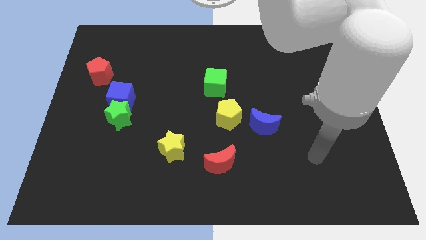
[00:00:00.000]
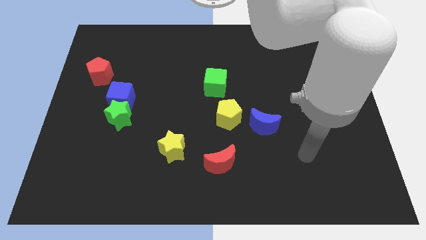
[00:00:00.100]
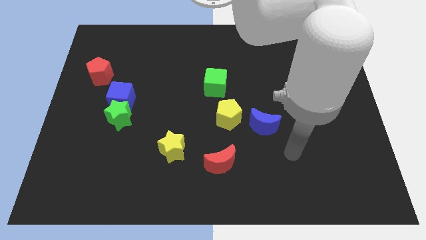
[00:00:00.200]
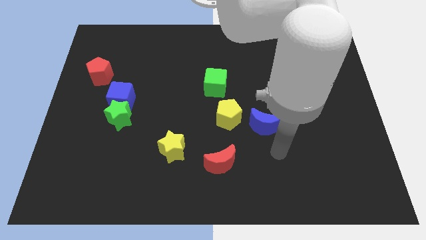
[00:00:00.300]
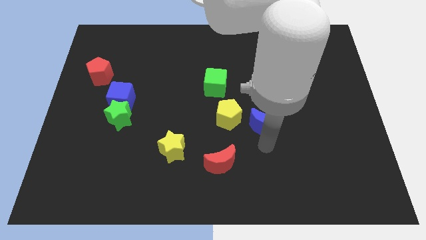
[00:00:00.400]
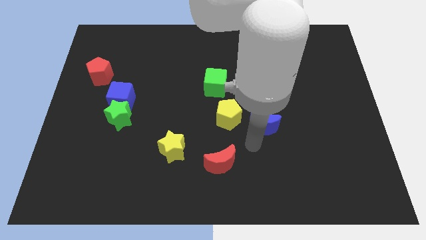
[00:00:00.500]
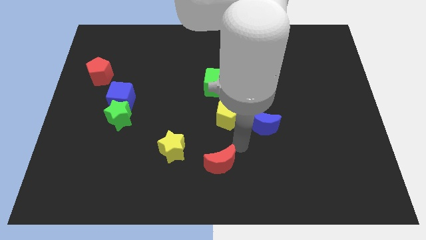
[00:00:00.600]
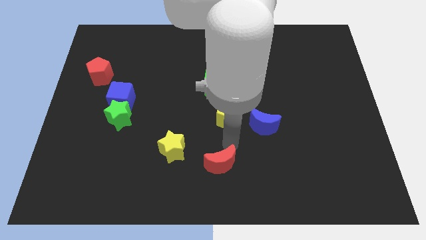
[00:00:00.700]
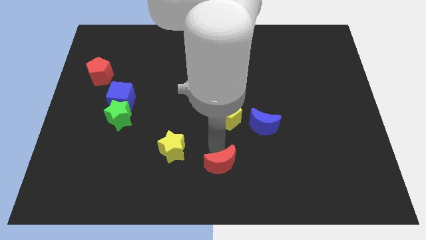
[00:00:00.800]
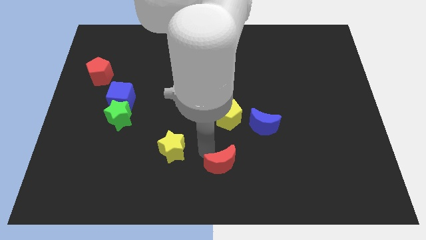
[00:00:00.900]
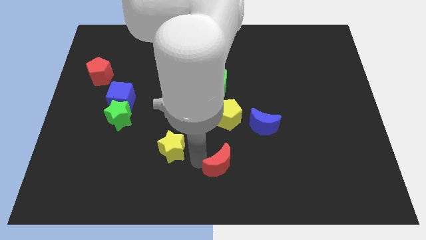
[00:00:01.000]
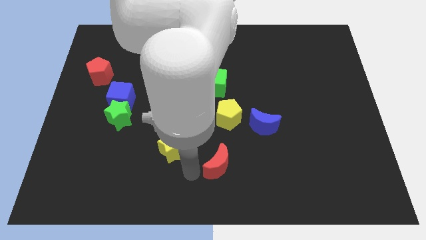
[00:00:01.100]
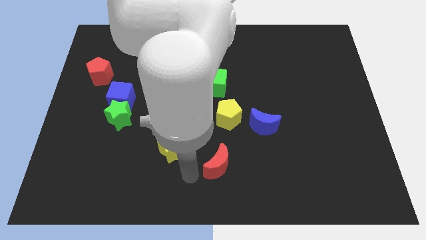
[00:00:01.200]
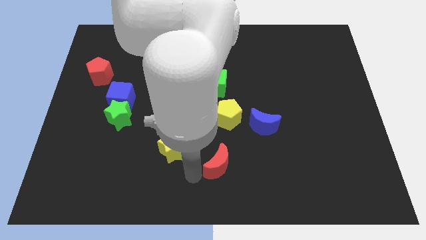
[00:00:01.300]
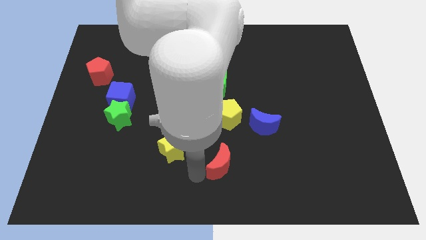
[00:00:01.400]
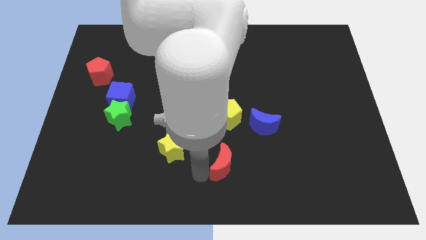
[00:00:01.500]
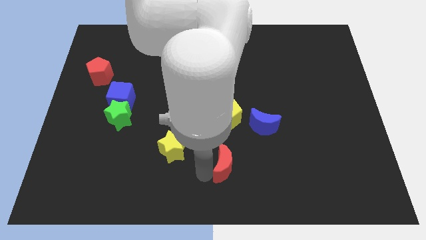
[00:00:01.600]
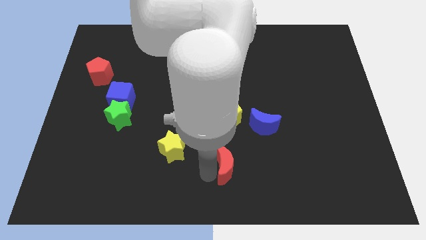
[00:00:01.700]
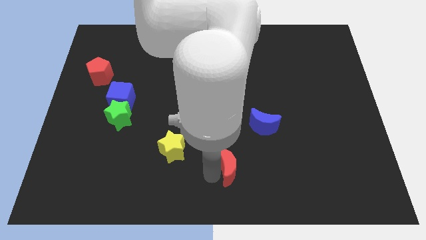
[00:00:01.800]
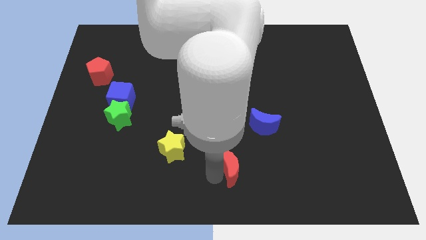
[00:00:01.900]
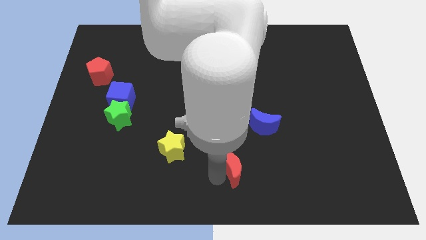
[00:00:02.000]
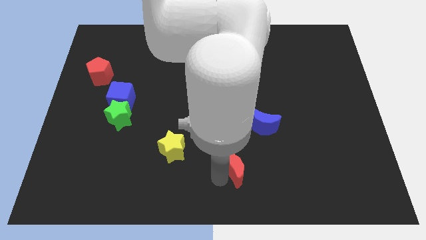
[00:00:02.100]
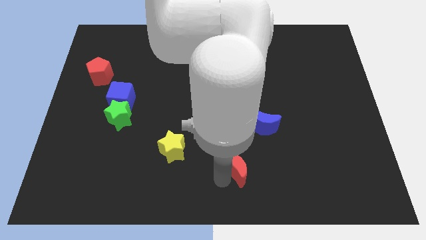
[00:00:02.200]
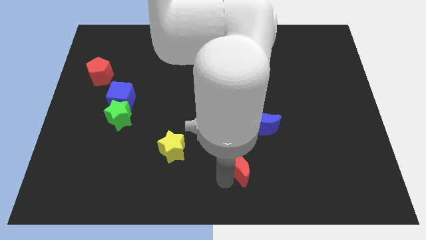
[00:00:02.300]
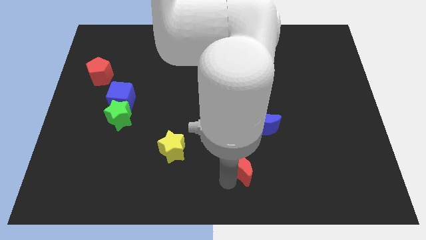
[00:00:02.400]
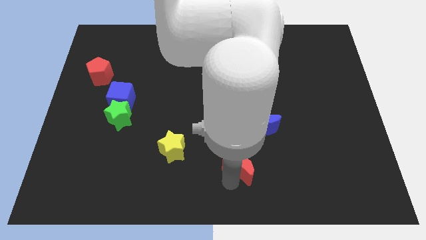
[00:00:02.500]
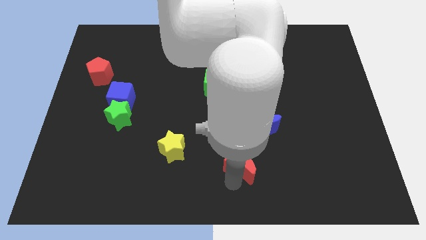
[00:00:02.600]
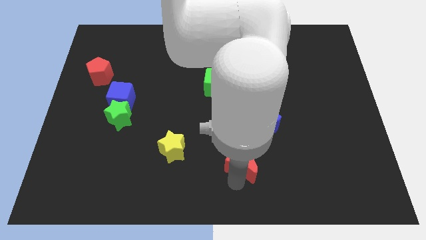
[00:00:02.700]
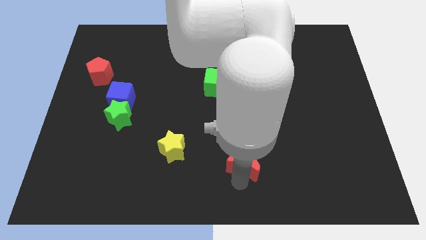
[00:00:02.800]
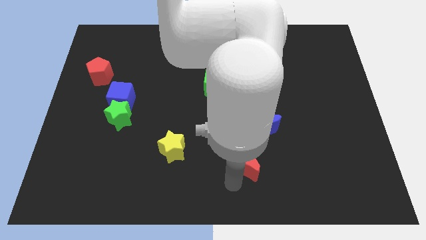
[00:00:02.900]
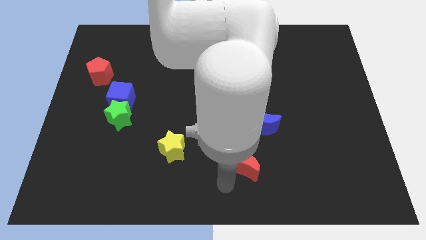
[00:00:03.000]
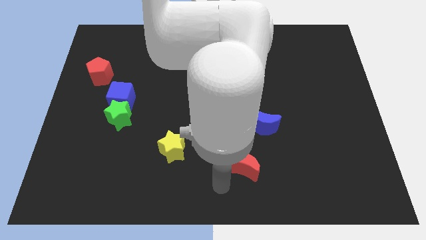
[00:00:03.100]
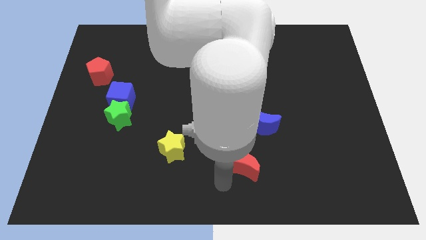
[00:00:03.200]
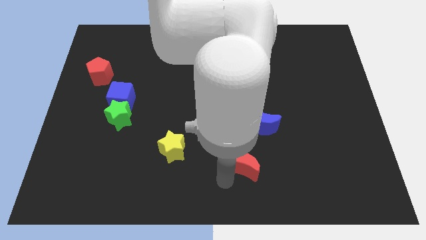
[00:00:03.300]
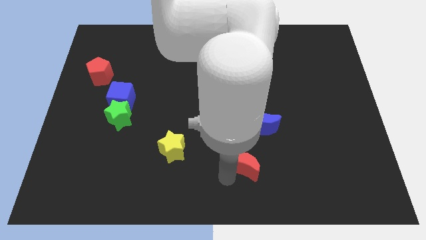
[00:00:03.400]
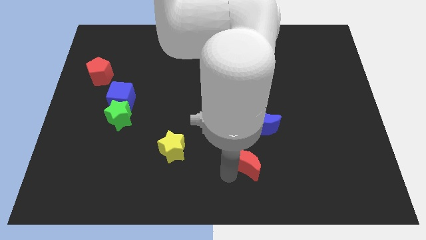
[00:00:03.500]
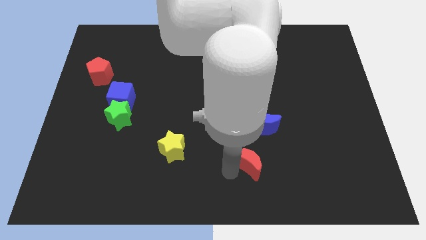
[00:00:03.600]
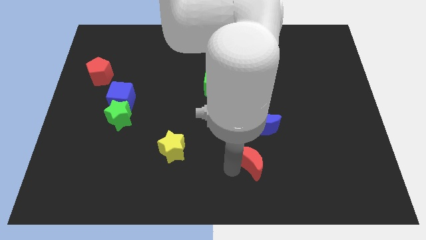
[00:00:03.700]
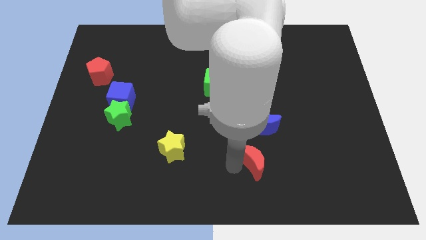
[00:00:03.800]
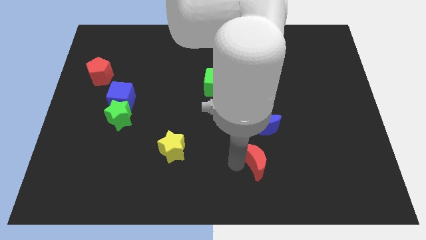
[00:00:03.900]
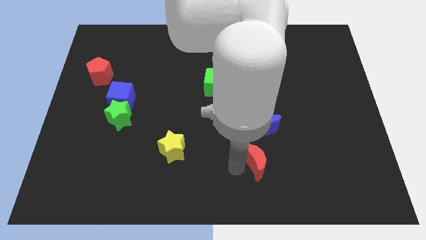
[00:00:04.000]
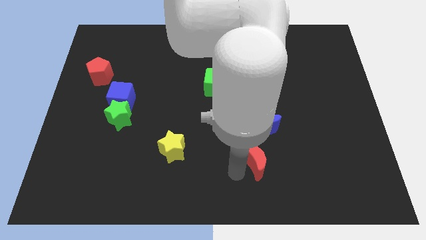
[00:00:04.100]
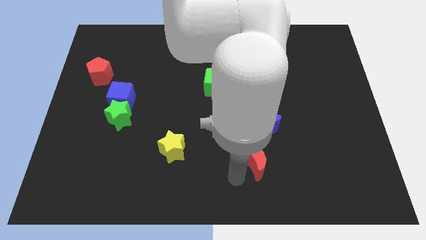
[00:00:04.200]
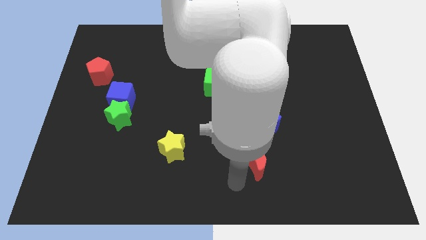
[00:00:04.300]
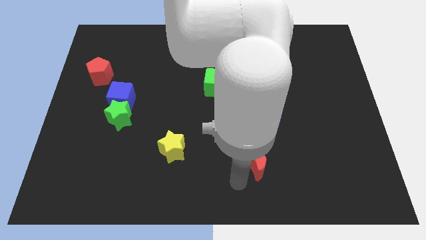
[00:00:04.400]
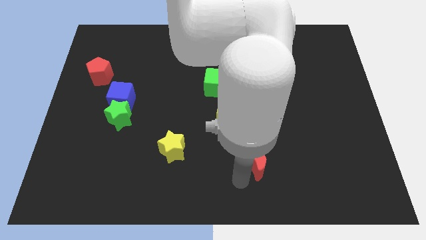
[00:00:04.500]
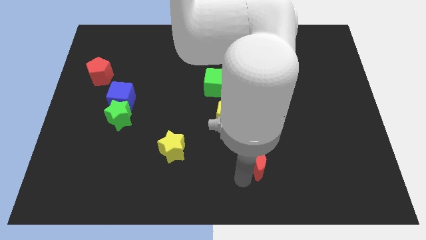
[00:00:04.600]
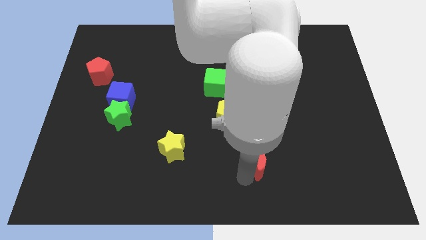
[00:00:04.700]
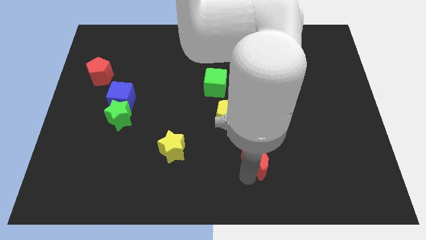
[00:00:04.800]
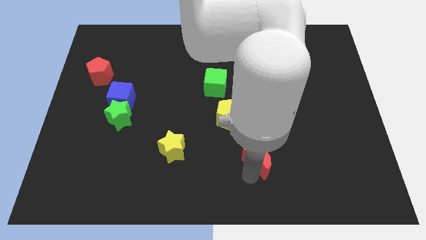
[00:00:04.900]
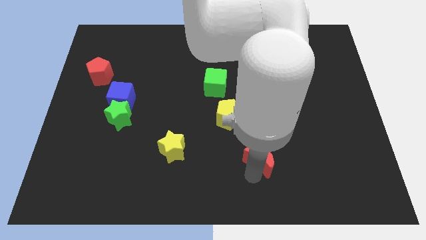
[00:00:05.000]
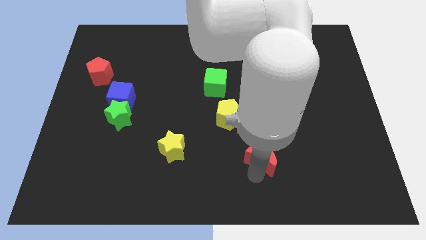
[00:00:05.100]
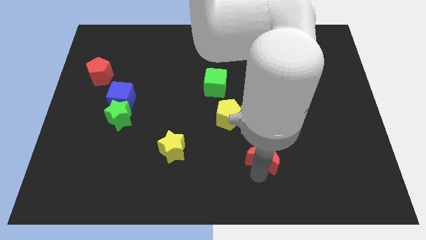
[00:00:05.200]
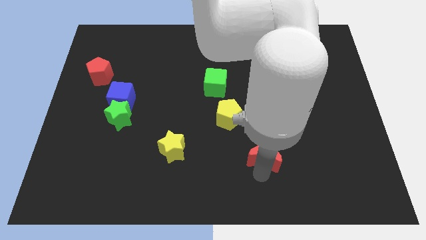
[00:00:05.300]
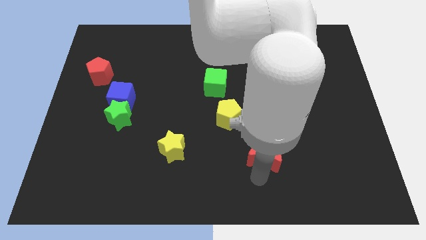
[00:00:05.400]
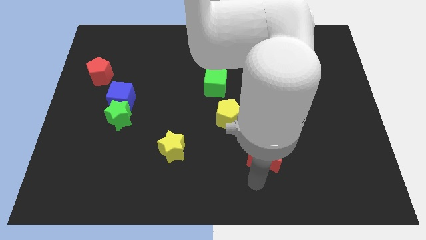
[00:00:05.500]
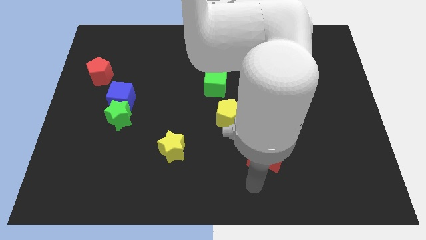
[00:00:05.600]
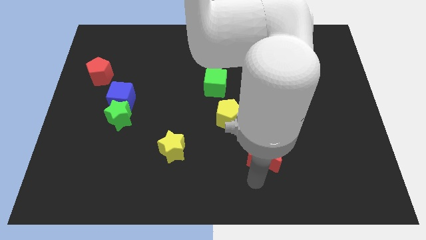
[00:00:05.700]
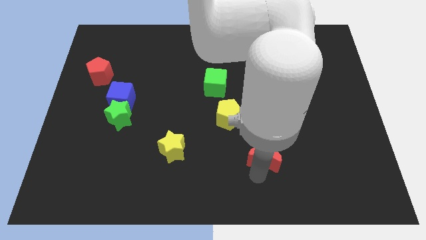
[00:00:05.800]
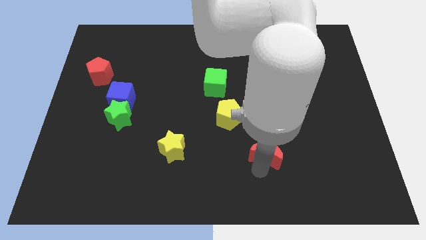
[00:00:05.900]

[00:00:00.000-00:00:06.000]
slide the red moon slightly up and right diagonally

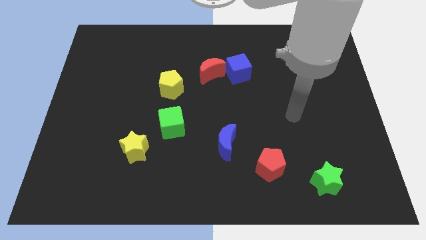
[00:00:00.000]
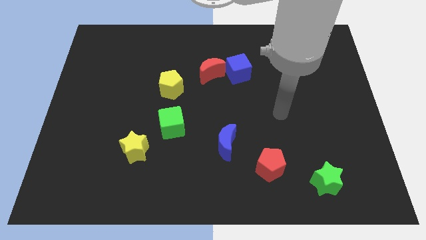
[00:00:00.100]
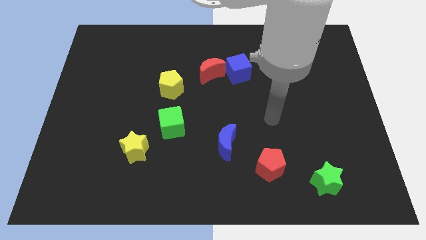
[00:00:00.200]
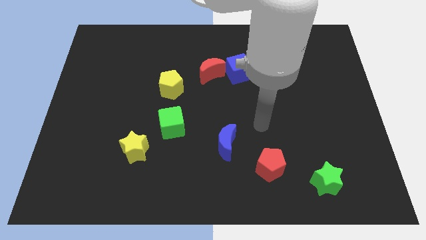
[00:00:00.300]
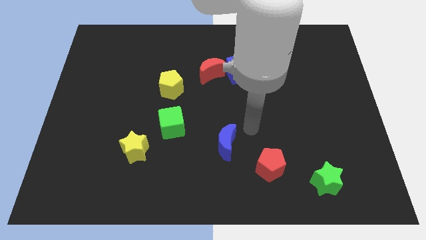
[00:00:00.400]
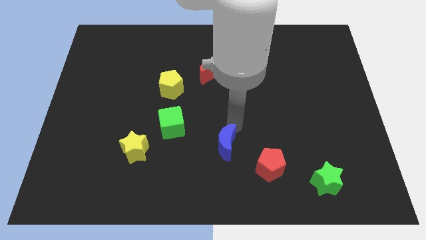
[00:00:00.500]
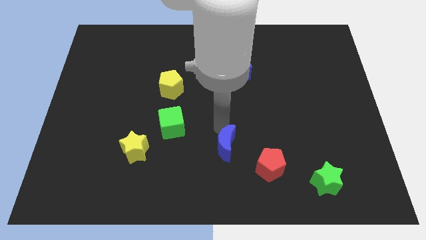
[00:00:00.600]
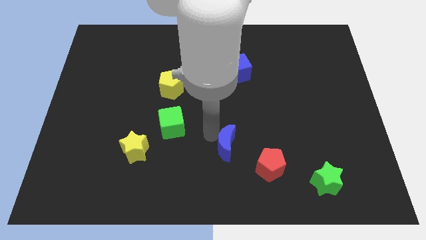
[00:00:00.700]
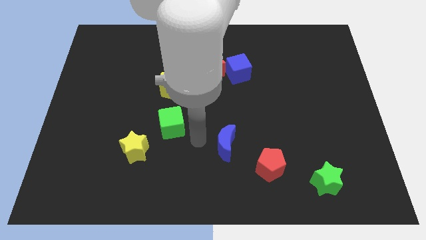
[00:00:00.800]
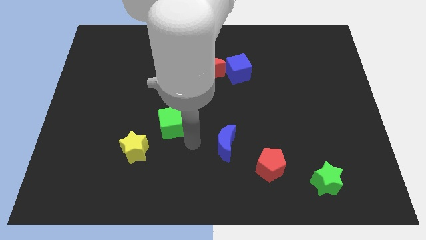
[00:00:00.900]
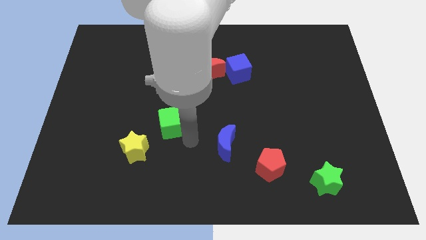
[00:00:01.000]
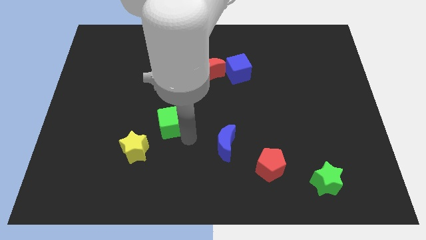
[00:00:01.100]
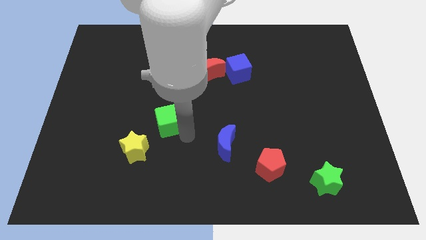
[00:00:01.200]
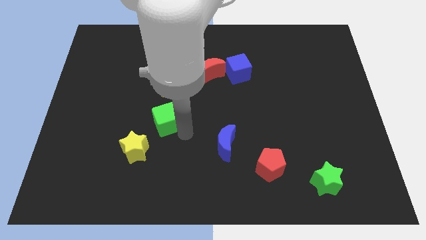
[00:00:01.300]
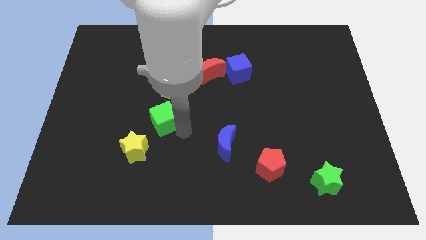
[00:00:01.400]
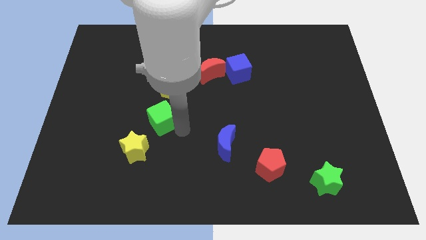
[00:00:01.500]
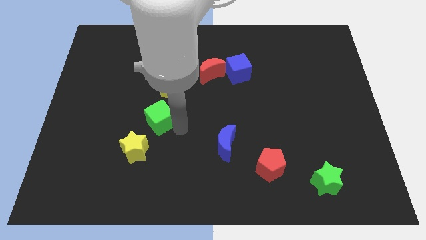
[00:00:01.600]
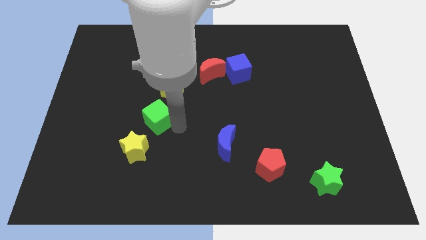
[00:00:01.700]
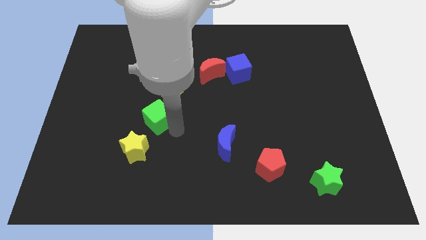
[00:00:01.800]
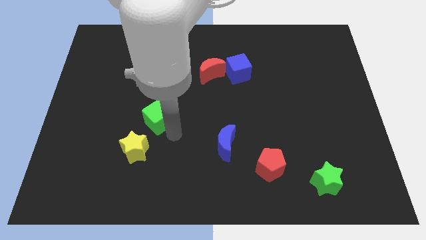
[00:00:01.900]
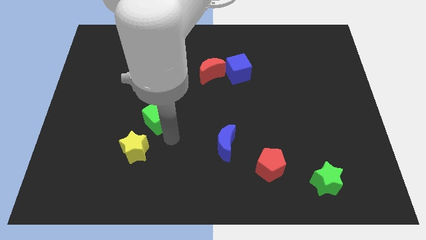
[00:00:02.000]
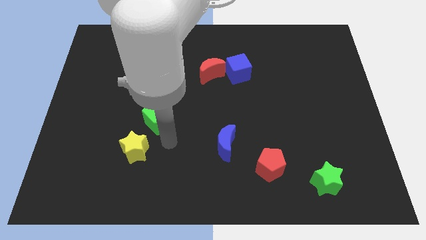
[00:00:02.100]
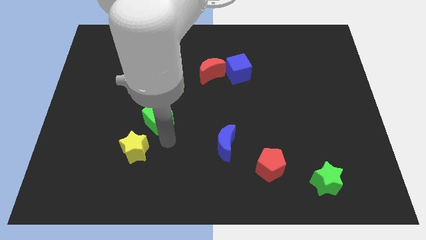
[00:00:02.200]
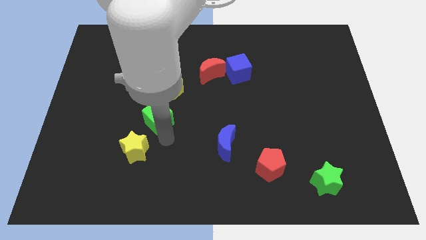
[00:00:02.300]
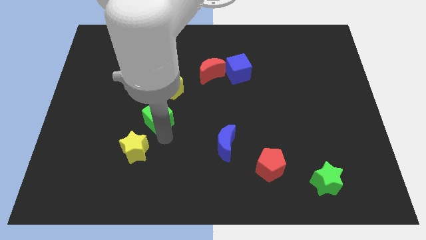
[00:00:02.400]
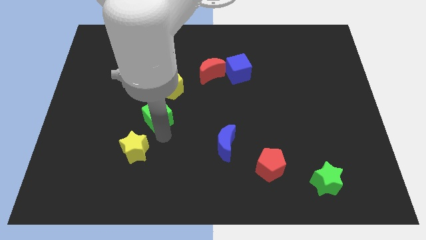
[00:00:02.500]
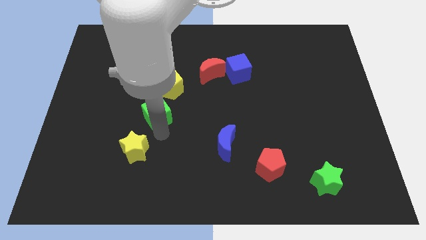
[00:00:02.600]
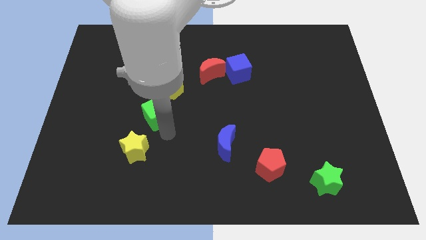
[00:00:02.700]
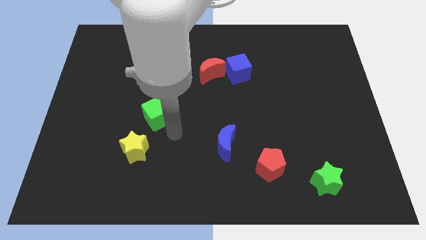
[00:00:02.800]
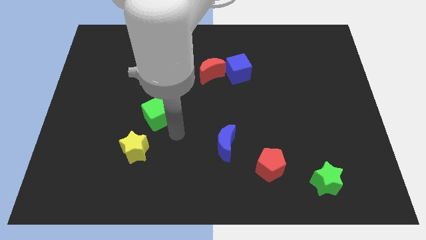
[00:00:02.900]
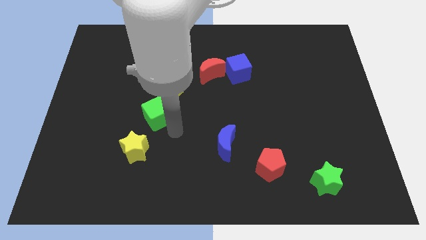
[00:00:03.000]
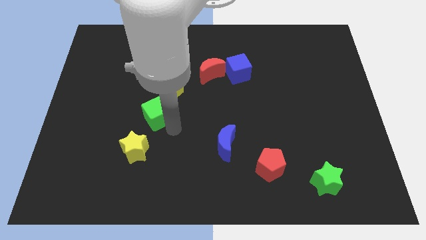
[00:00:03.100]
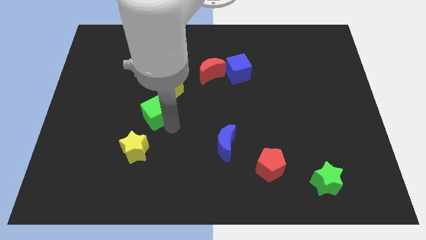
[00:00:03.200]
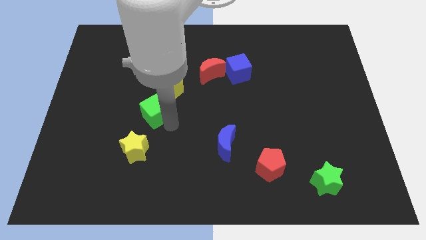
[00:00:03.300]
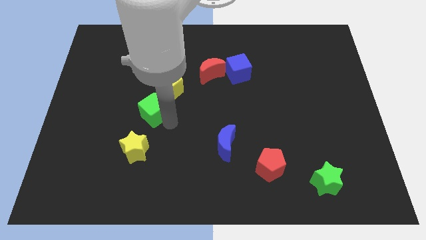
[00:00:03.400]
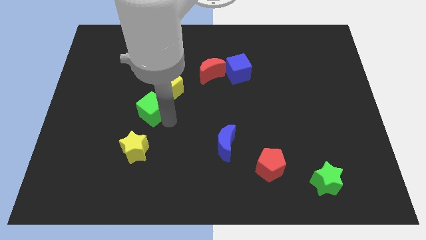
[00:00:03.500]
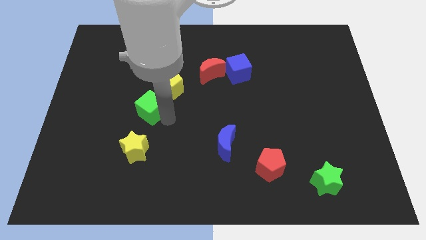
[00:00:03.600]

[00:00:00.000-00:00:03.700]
move the green cube upwards and left slightly
